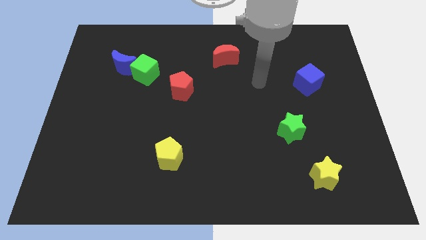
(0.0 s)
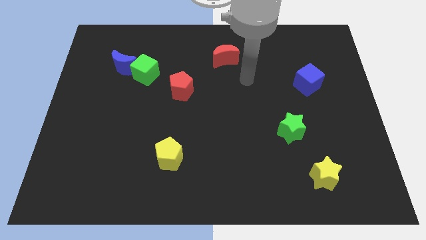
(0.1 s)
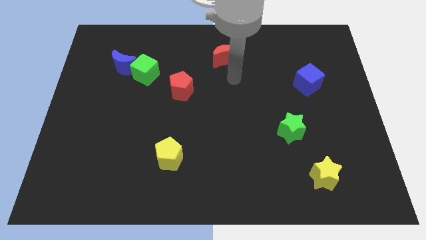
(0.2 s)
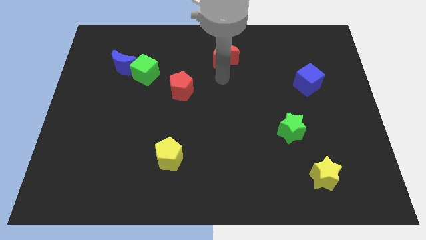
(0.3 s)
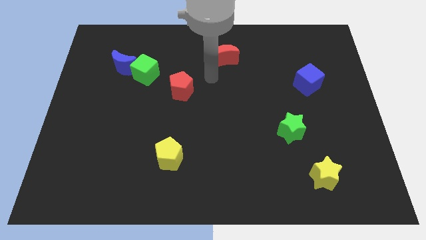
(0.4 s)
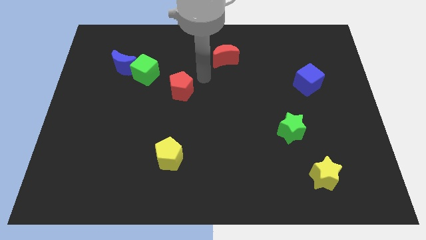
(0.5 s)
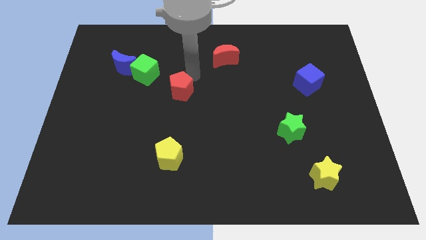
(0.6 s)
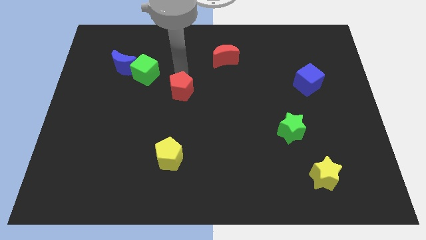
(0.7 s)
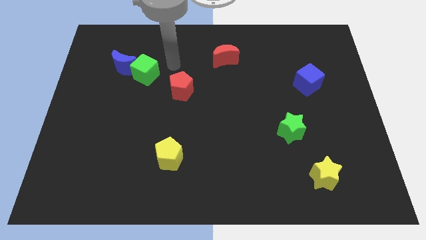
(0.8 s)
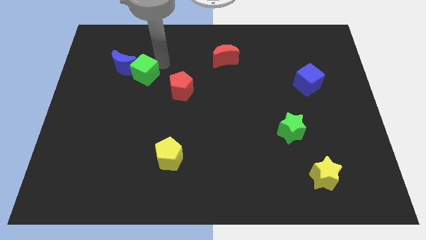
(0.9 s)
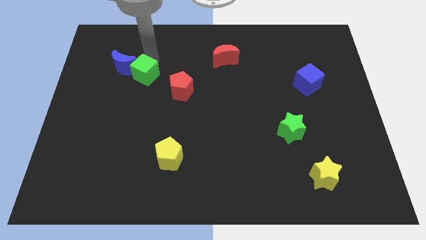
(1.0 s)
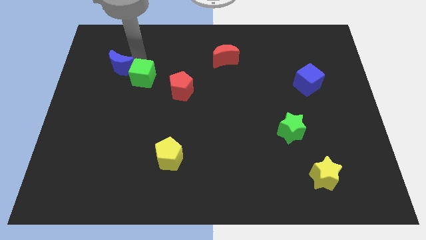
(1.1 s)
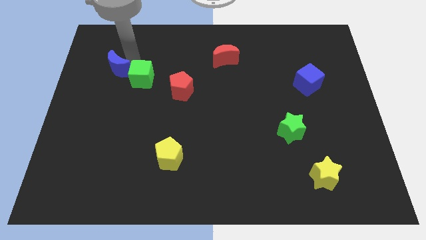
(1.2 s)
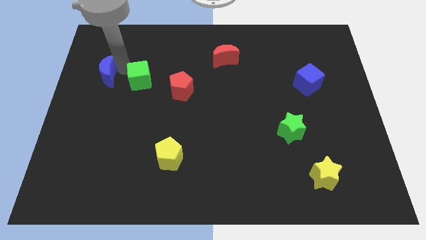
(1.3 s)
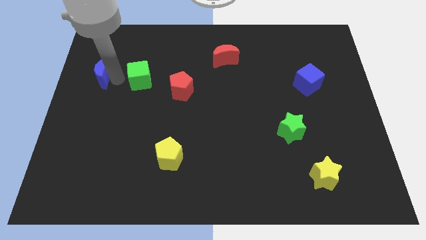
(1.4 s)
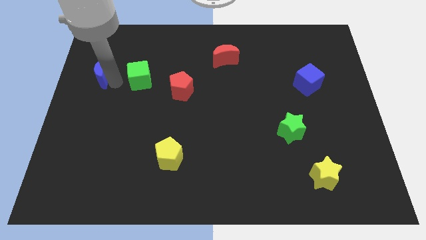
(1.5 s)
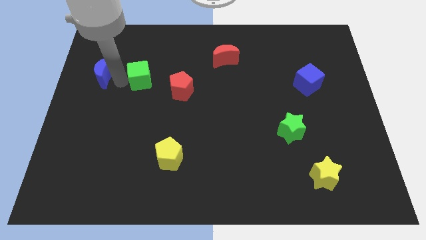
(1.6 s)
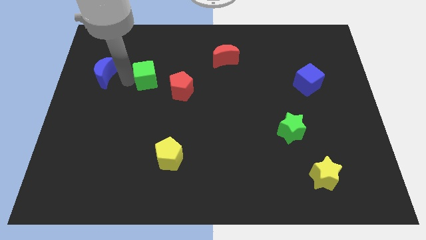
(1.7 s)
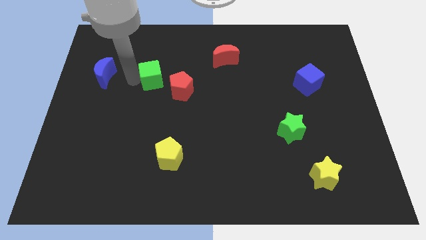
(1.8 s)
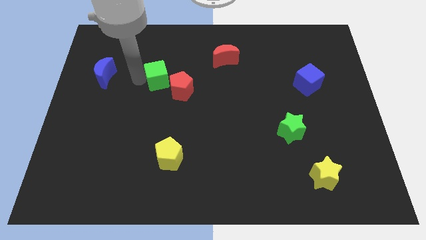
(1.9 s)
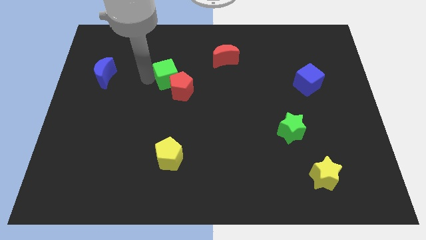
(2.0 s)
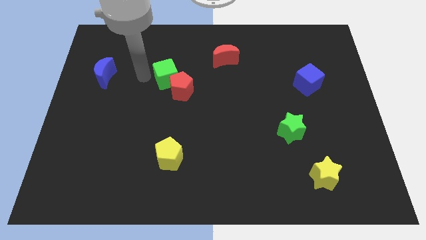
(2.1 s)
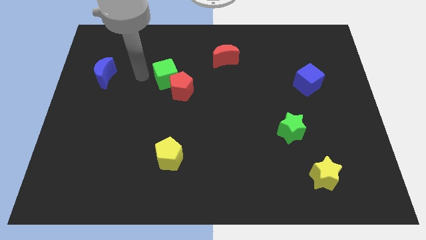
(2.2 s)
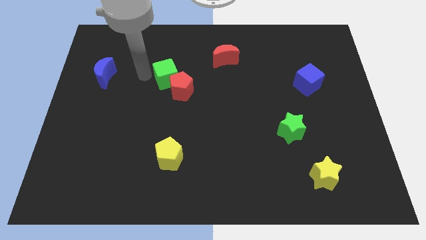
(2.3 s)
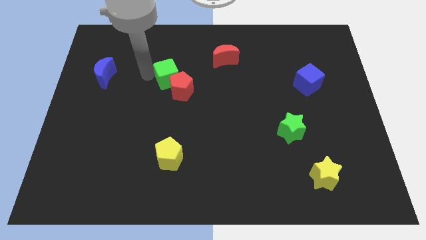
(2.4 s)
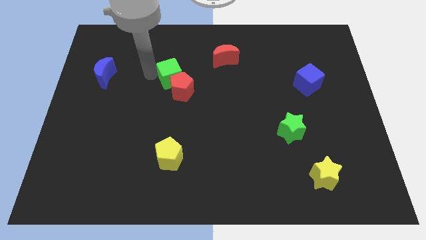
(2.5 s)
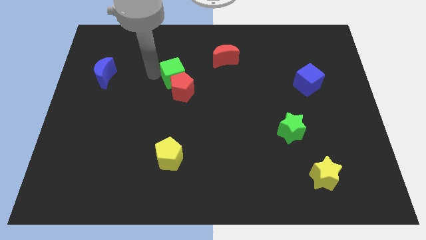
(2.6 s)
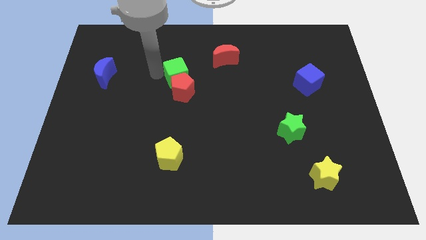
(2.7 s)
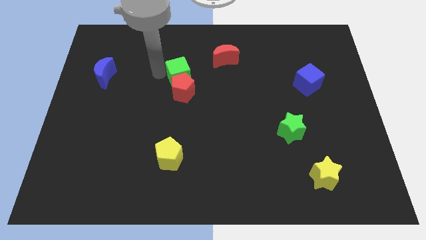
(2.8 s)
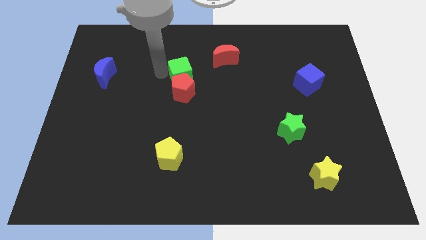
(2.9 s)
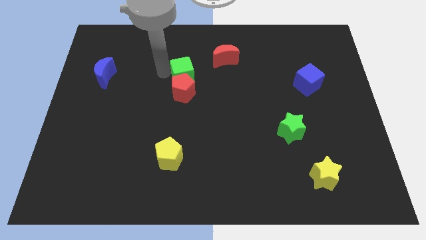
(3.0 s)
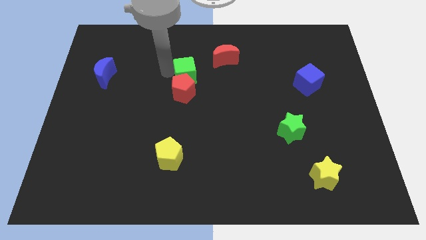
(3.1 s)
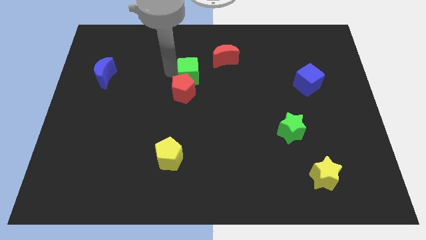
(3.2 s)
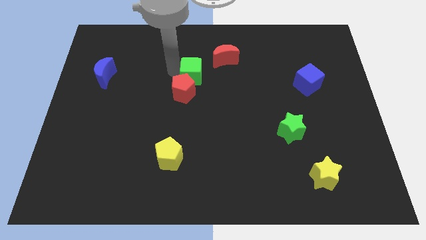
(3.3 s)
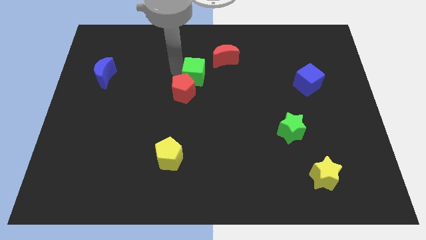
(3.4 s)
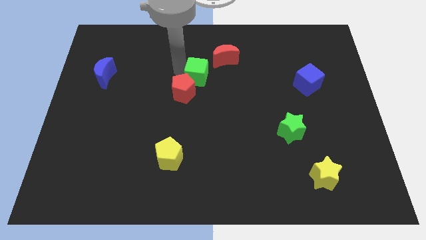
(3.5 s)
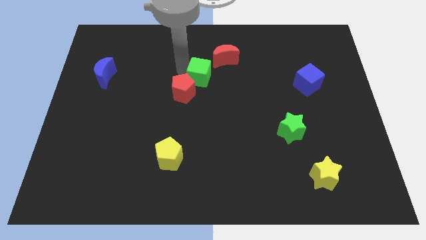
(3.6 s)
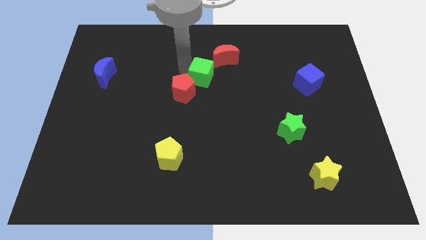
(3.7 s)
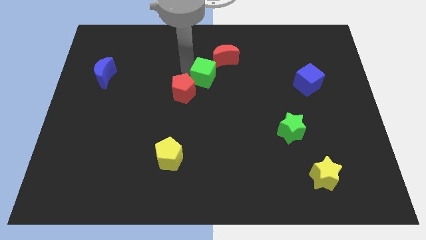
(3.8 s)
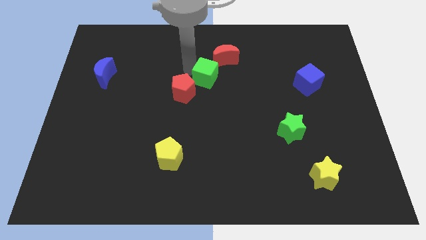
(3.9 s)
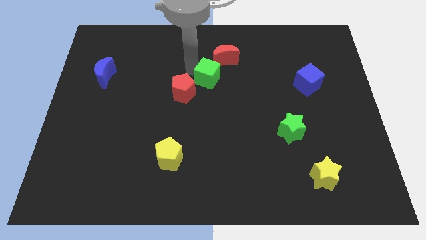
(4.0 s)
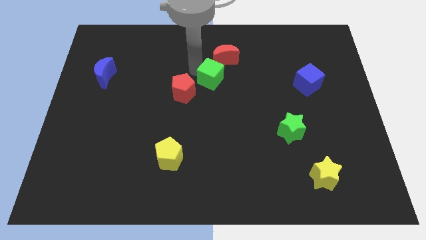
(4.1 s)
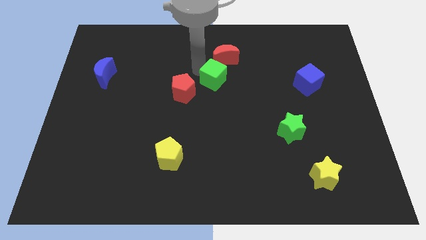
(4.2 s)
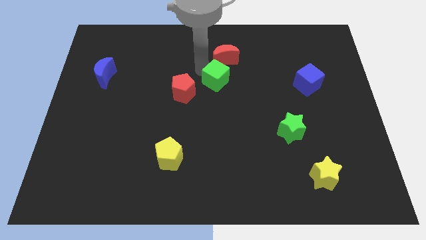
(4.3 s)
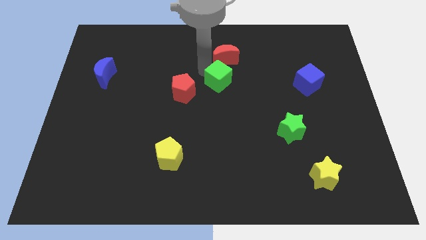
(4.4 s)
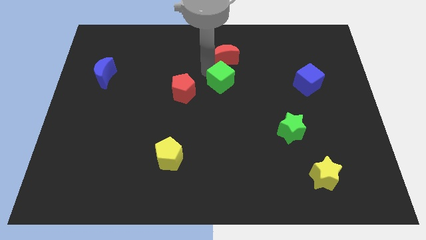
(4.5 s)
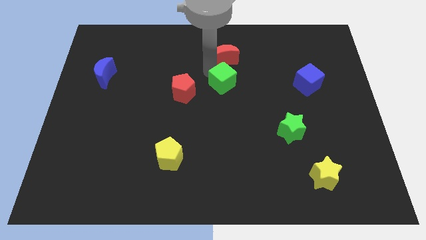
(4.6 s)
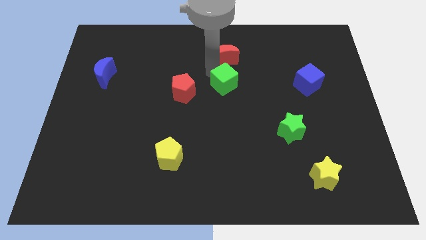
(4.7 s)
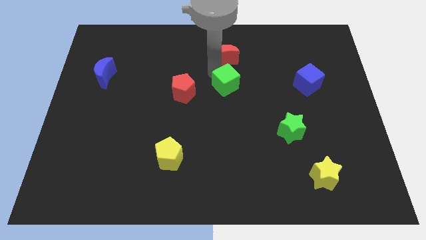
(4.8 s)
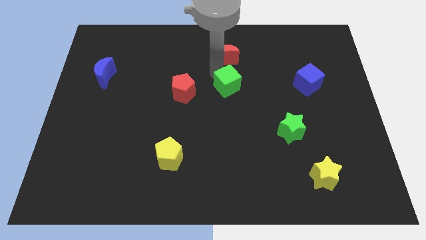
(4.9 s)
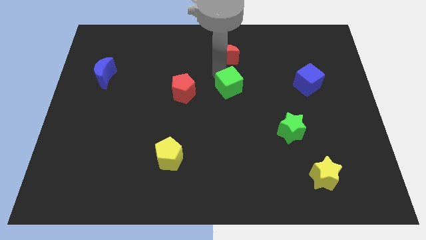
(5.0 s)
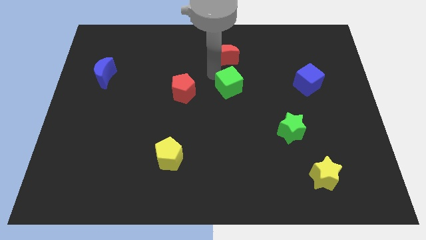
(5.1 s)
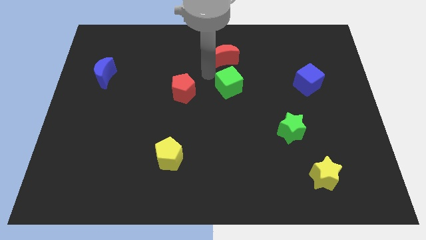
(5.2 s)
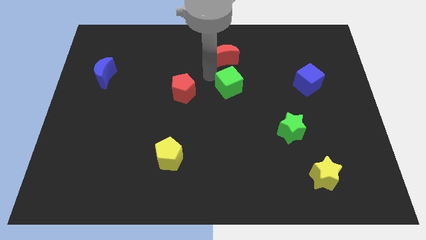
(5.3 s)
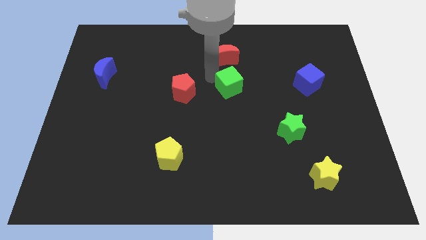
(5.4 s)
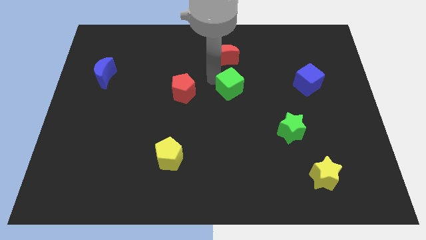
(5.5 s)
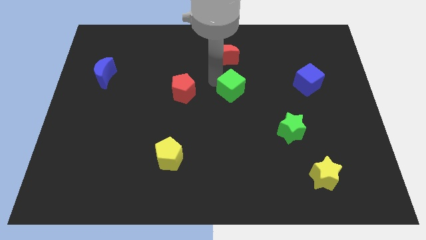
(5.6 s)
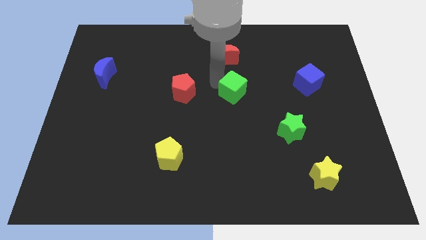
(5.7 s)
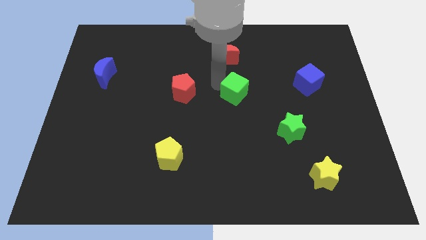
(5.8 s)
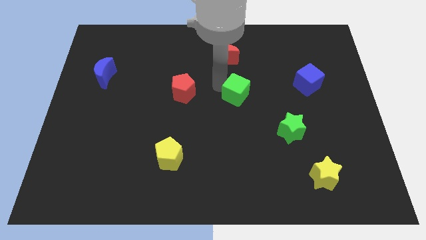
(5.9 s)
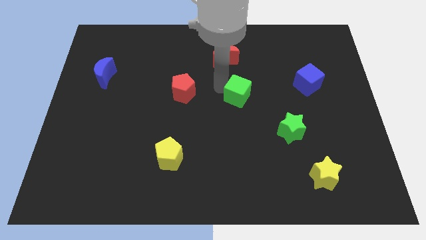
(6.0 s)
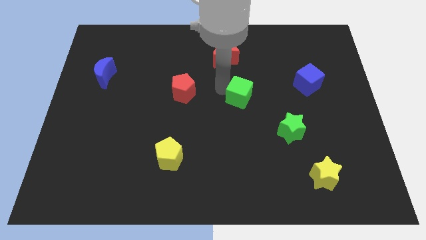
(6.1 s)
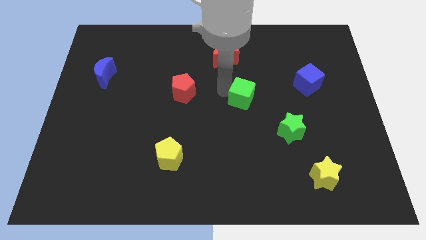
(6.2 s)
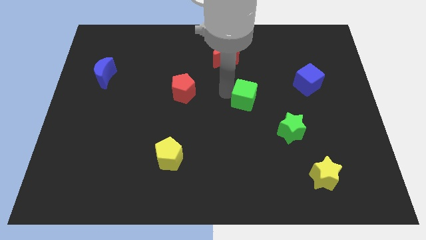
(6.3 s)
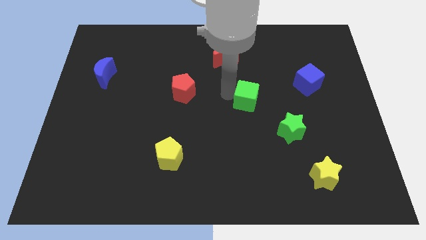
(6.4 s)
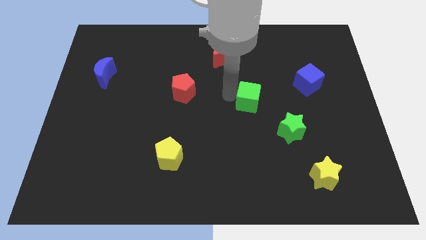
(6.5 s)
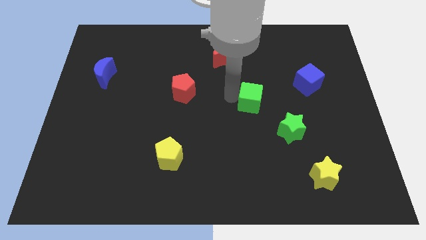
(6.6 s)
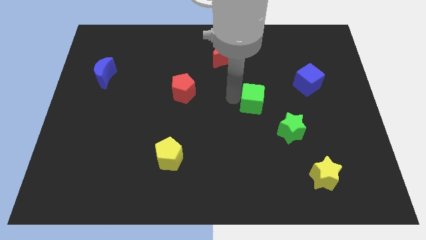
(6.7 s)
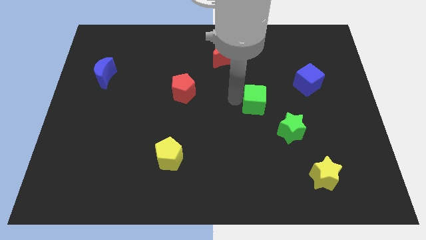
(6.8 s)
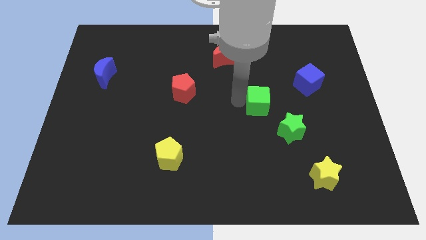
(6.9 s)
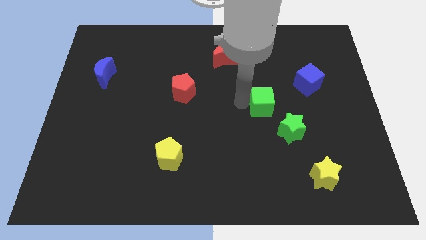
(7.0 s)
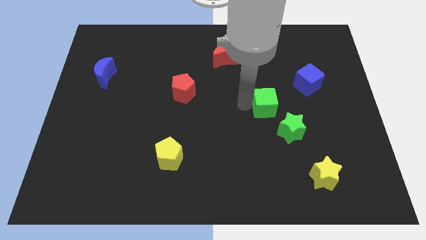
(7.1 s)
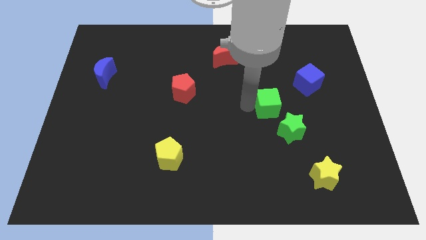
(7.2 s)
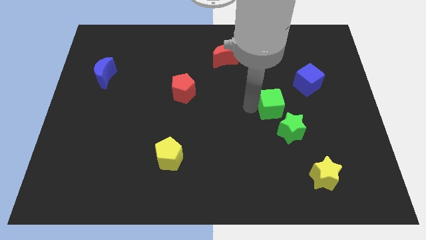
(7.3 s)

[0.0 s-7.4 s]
push the green cube to the bottom left side of the blue cube

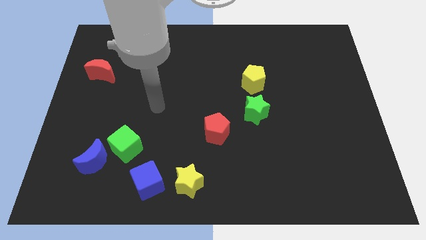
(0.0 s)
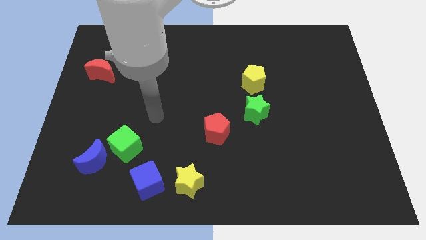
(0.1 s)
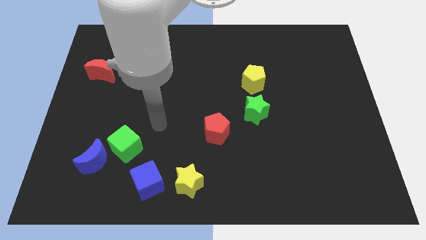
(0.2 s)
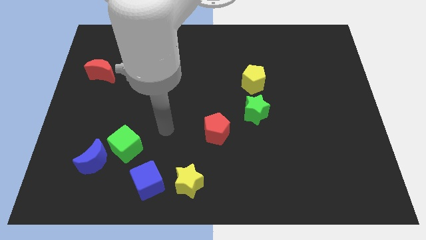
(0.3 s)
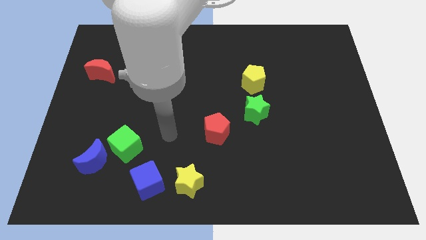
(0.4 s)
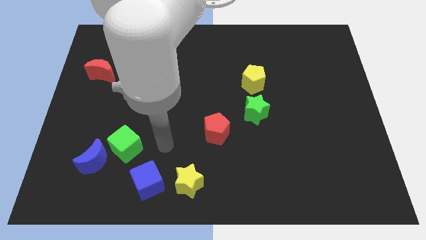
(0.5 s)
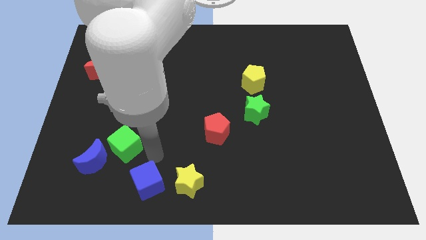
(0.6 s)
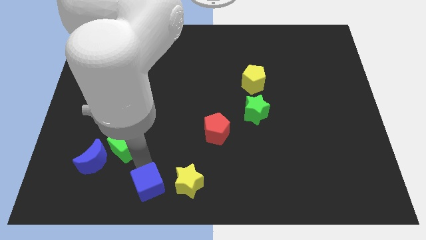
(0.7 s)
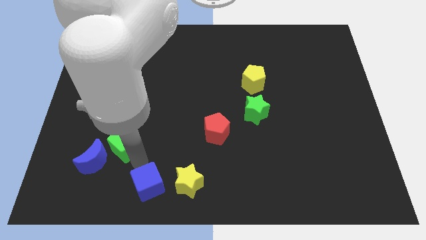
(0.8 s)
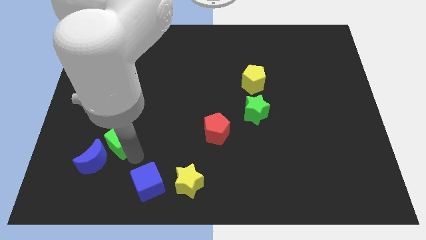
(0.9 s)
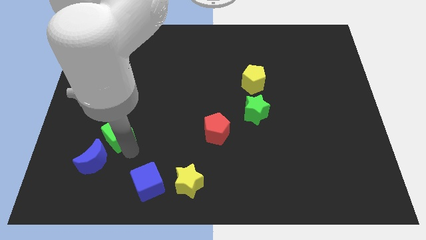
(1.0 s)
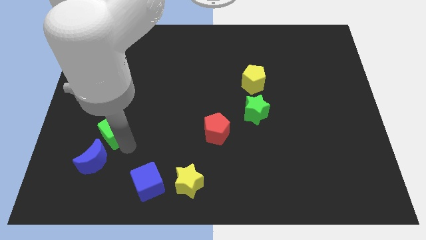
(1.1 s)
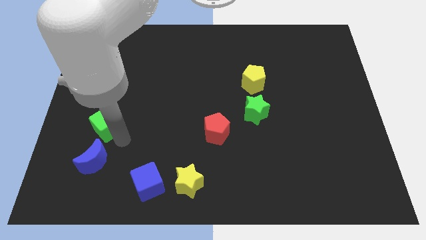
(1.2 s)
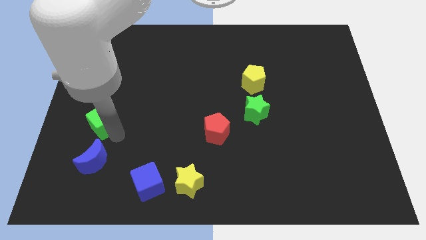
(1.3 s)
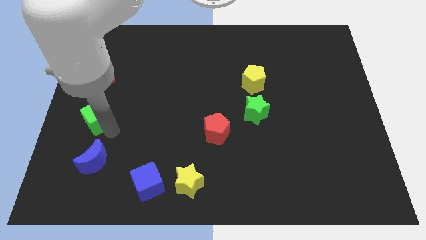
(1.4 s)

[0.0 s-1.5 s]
put the green cube below the red moon

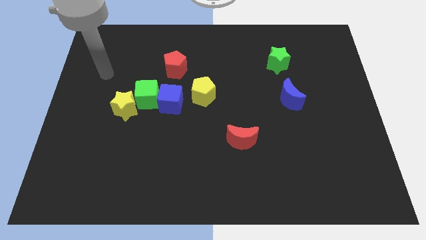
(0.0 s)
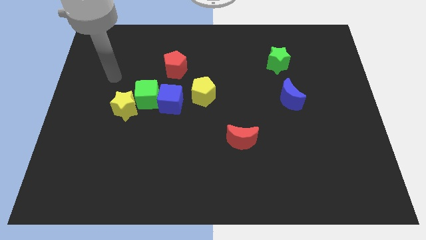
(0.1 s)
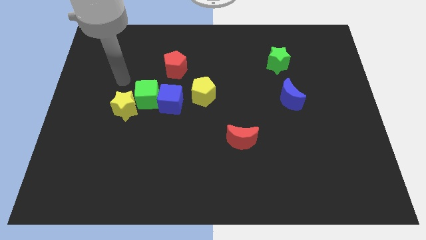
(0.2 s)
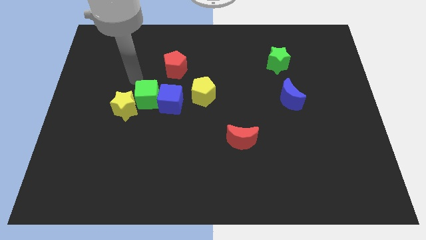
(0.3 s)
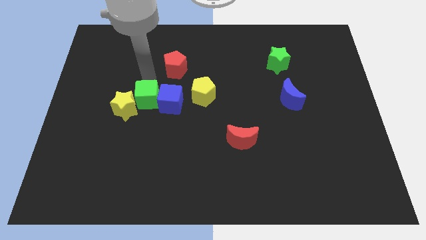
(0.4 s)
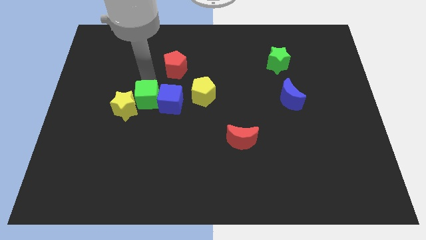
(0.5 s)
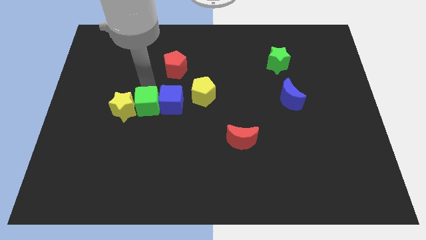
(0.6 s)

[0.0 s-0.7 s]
put the green cube diagonally down and to the right of the yellow star
